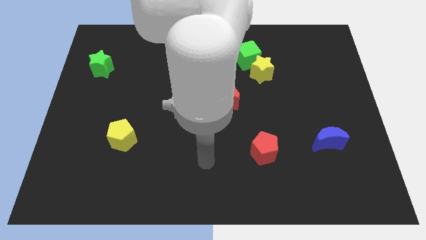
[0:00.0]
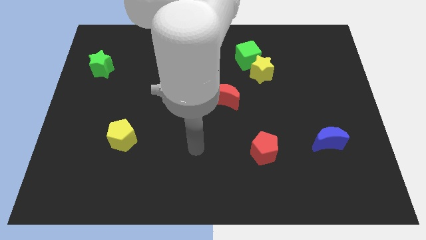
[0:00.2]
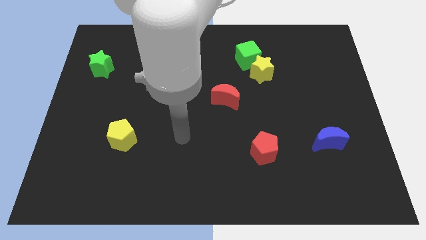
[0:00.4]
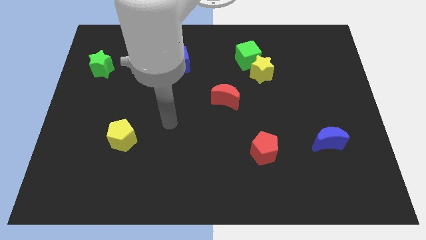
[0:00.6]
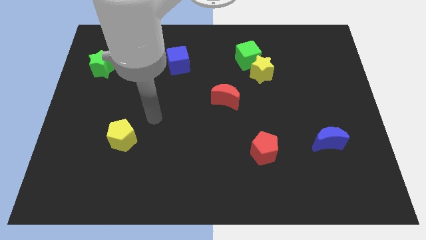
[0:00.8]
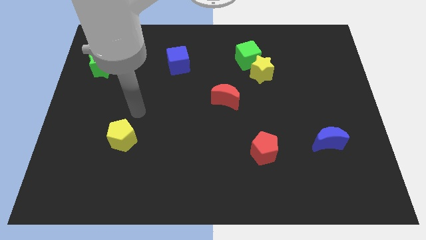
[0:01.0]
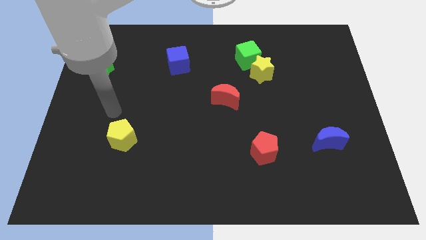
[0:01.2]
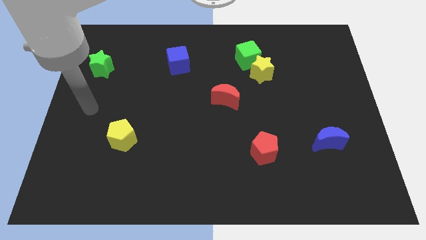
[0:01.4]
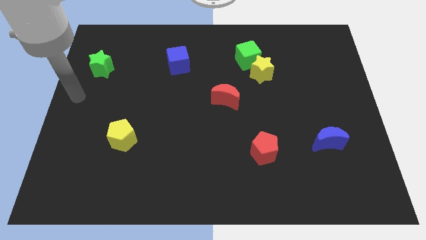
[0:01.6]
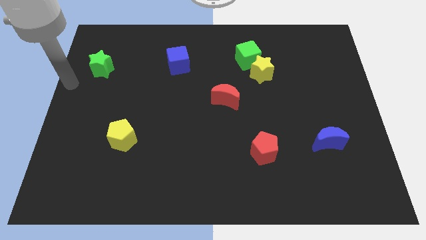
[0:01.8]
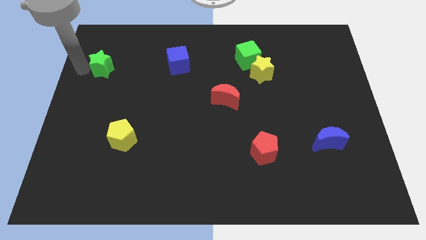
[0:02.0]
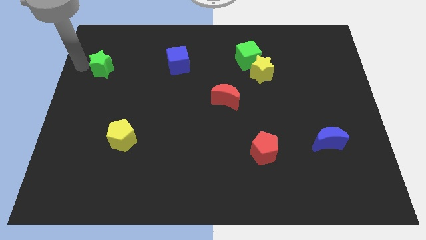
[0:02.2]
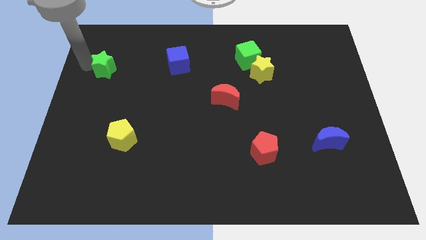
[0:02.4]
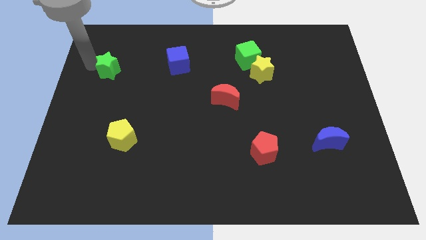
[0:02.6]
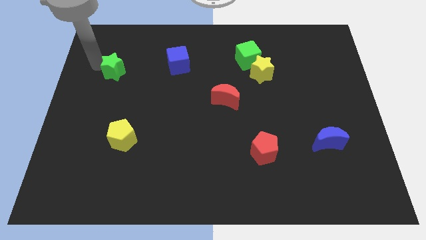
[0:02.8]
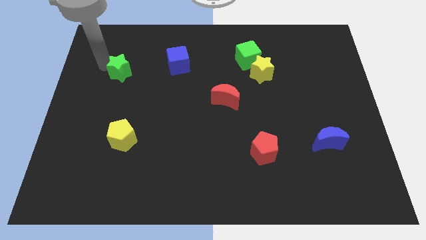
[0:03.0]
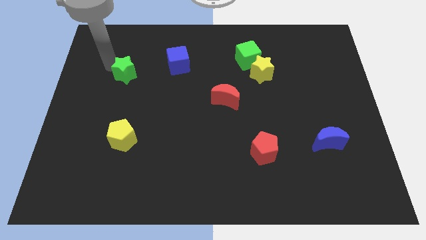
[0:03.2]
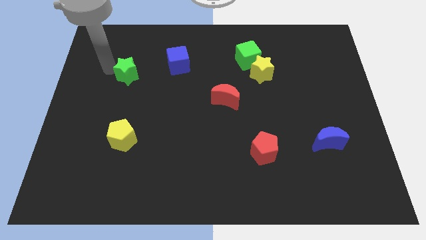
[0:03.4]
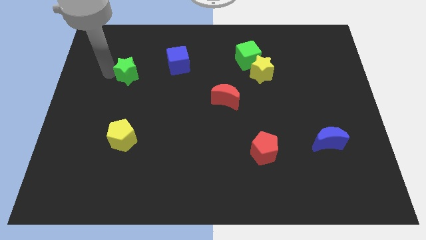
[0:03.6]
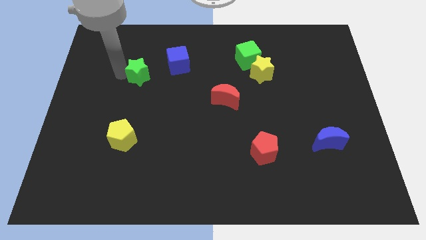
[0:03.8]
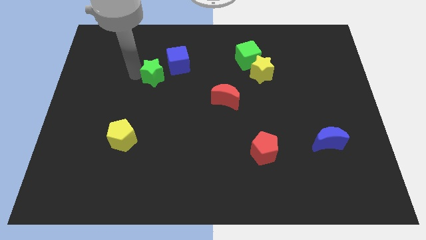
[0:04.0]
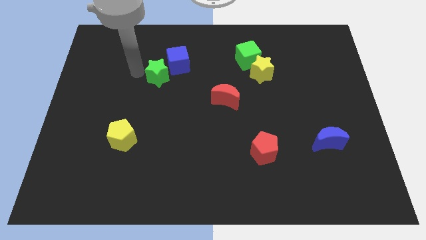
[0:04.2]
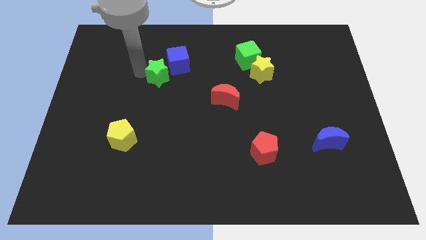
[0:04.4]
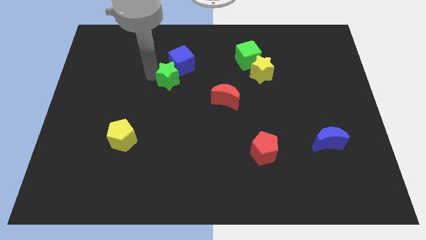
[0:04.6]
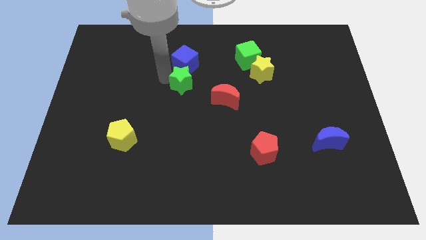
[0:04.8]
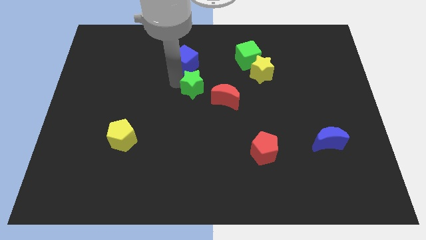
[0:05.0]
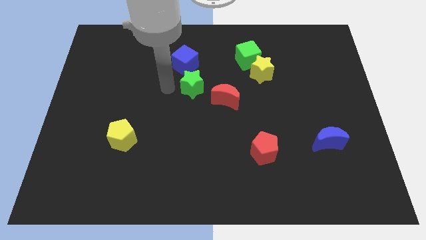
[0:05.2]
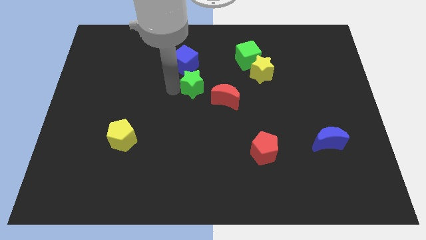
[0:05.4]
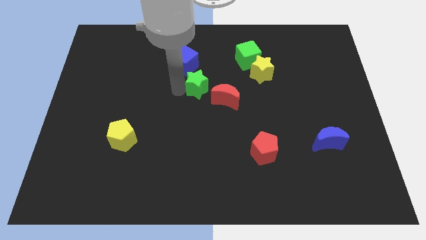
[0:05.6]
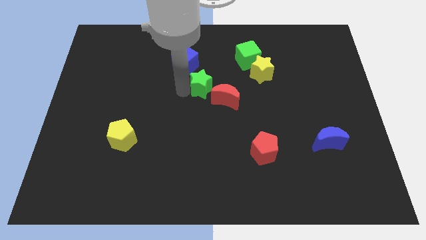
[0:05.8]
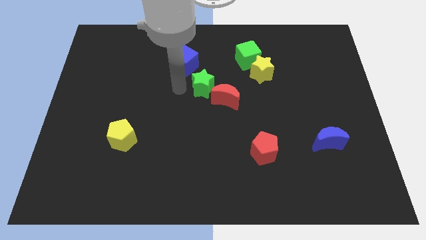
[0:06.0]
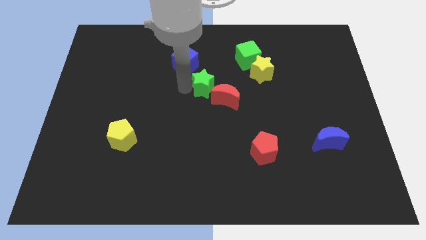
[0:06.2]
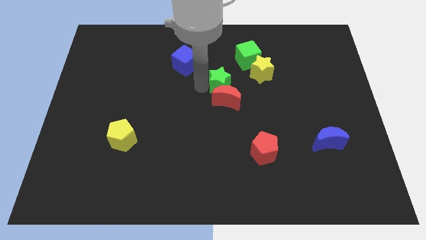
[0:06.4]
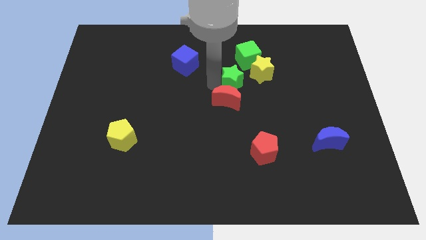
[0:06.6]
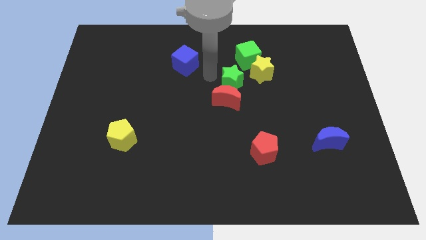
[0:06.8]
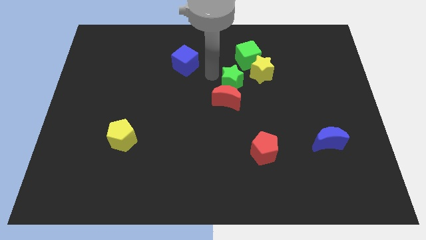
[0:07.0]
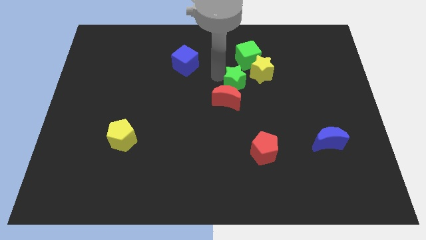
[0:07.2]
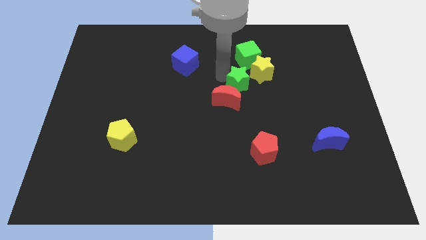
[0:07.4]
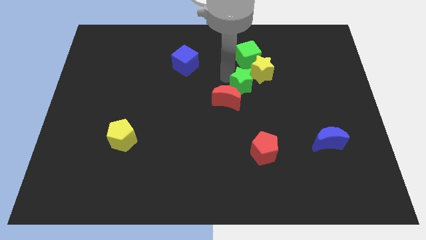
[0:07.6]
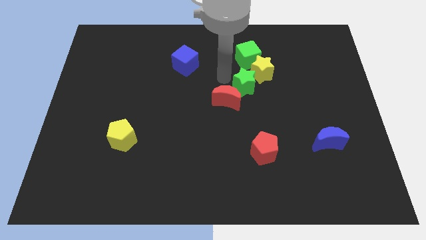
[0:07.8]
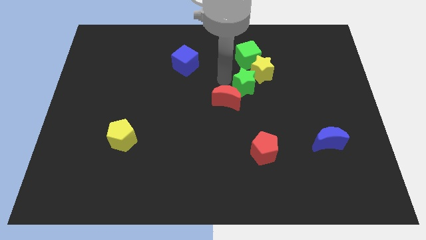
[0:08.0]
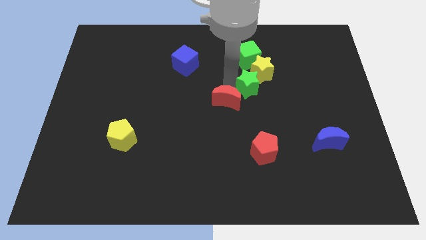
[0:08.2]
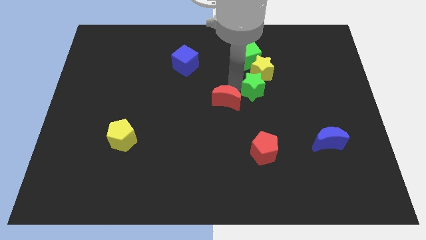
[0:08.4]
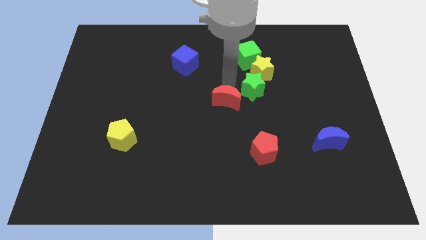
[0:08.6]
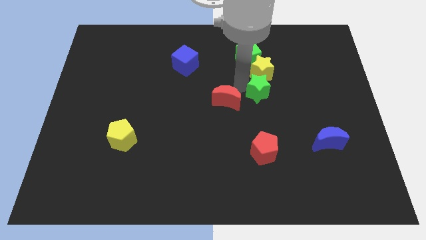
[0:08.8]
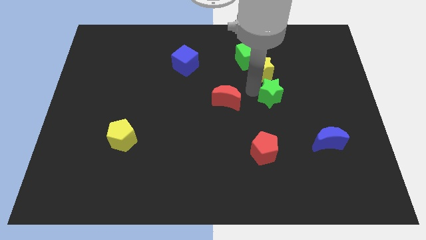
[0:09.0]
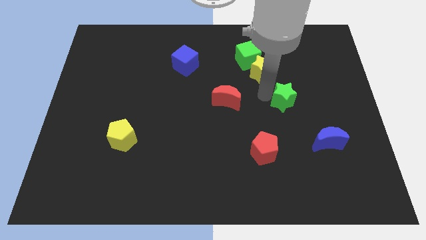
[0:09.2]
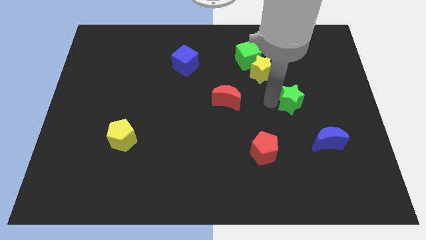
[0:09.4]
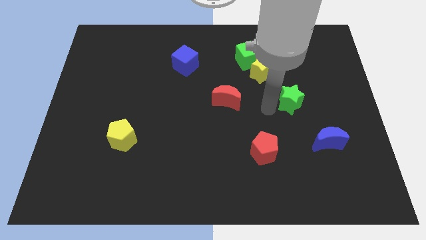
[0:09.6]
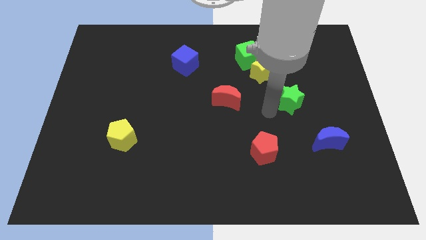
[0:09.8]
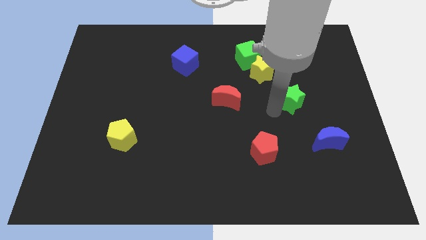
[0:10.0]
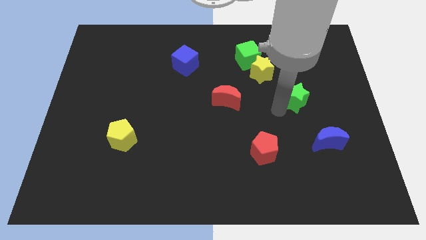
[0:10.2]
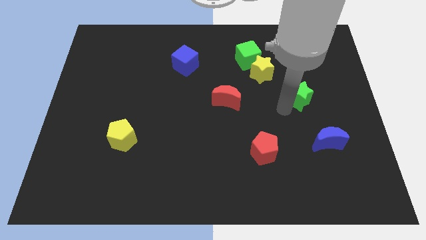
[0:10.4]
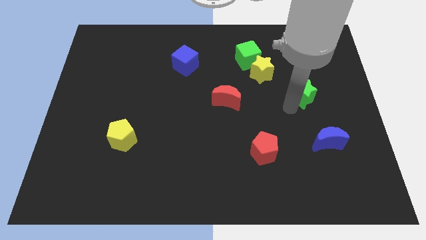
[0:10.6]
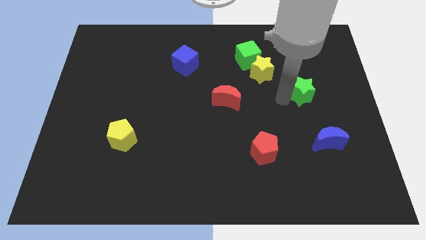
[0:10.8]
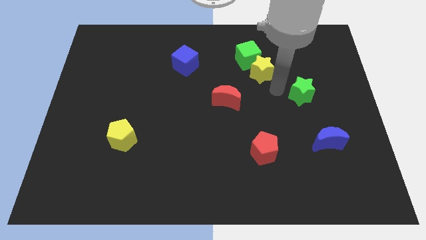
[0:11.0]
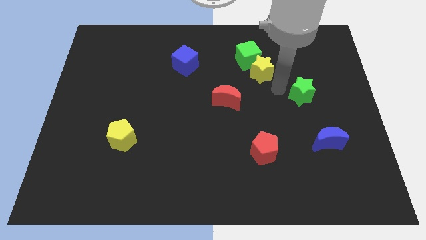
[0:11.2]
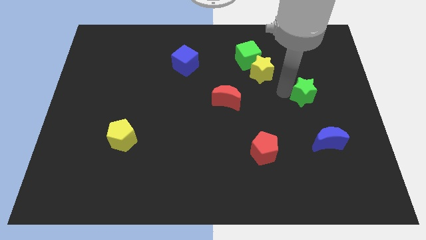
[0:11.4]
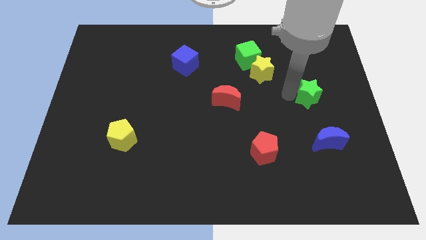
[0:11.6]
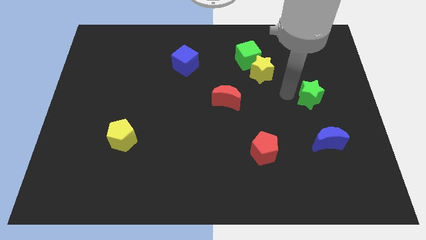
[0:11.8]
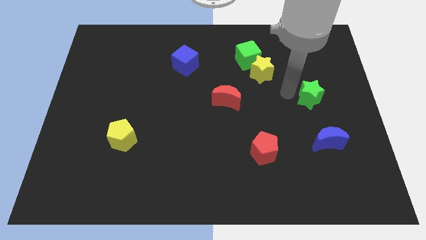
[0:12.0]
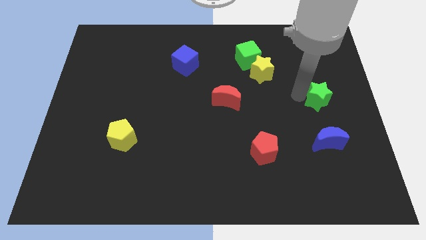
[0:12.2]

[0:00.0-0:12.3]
slide the green star to the center right
